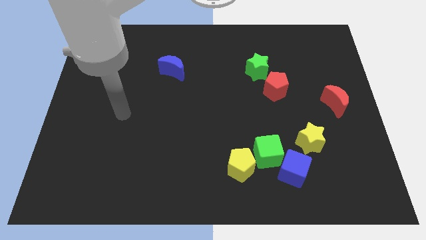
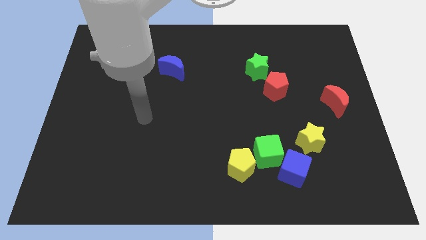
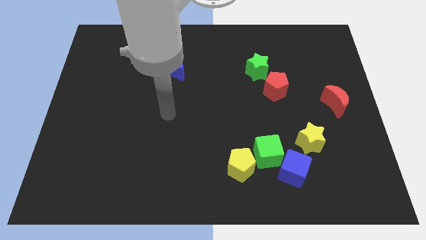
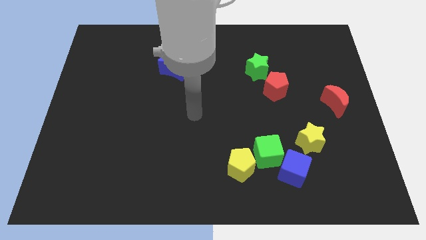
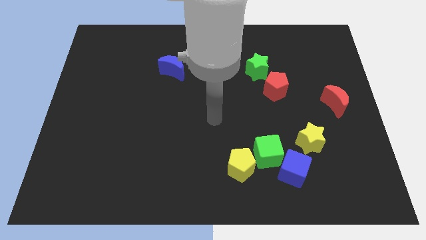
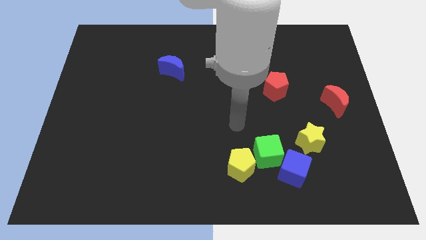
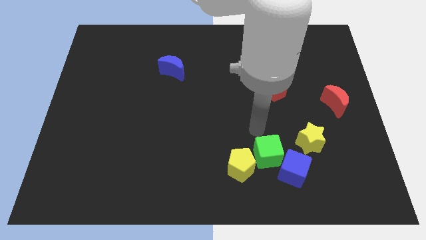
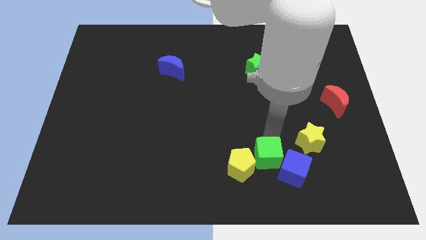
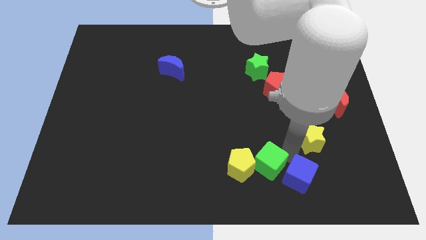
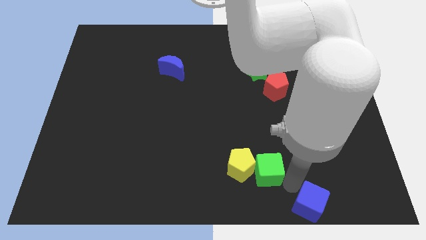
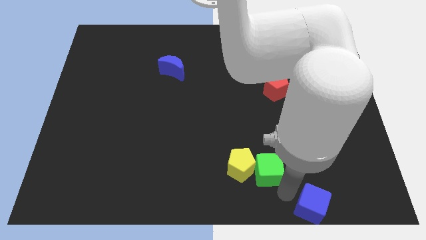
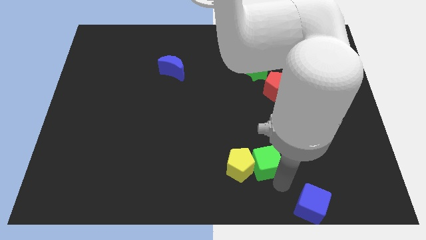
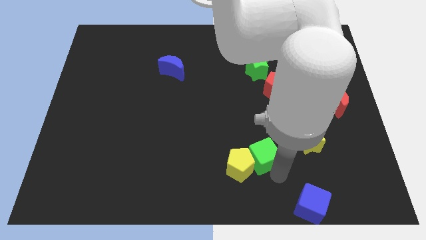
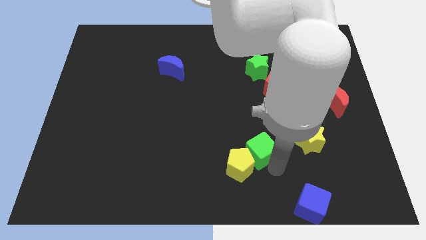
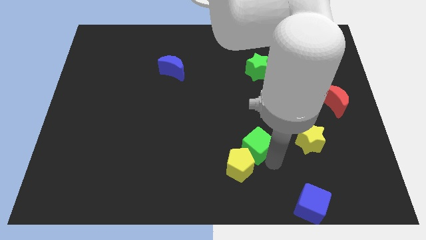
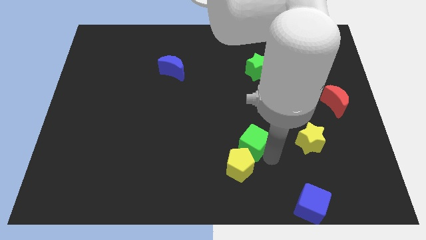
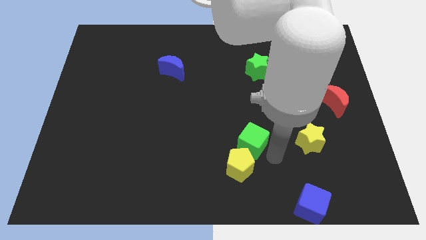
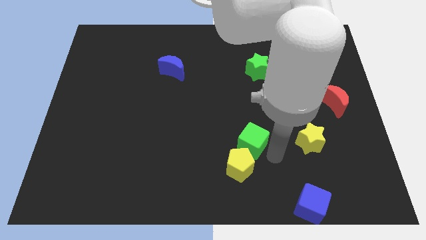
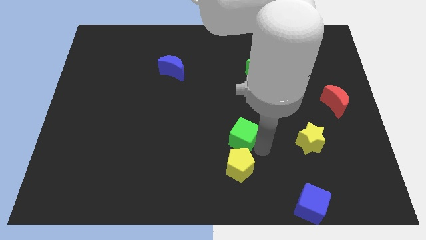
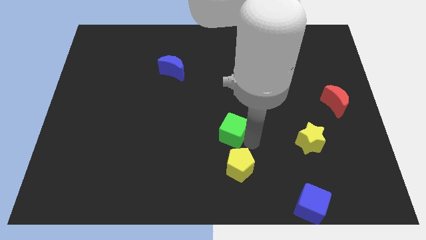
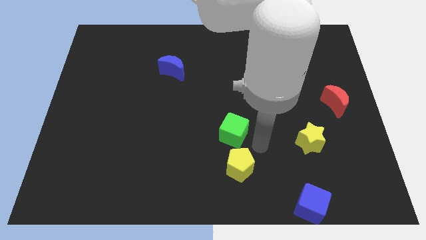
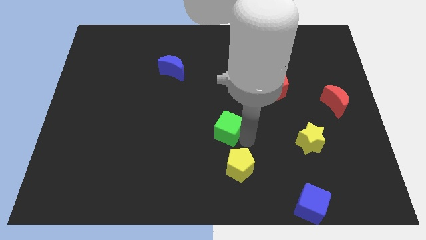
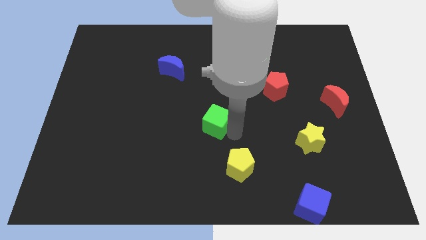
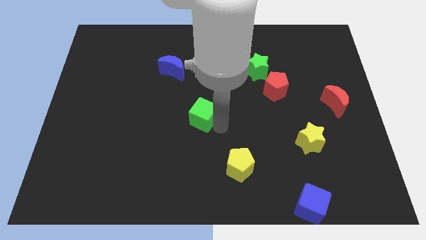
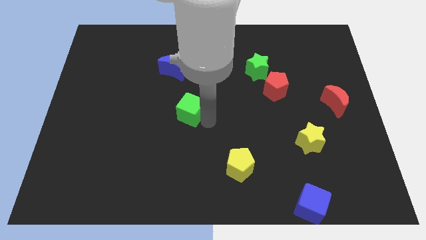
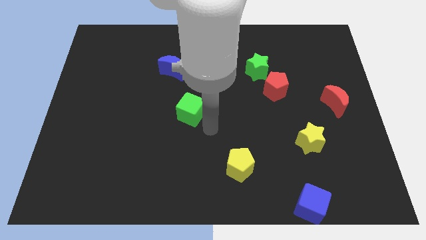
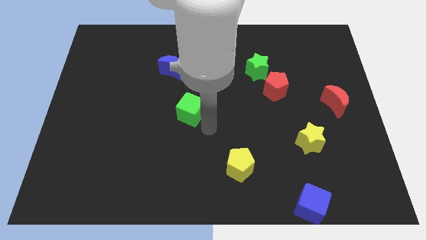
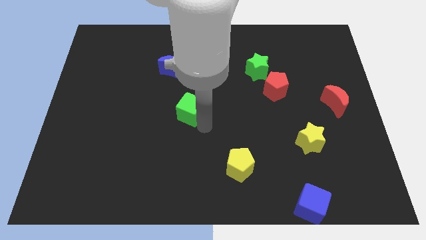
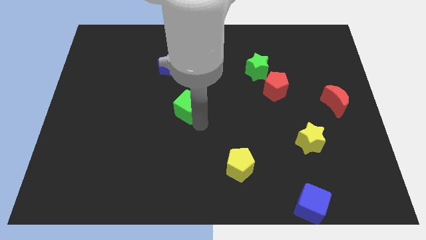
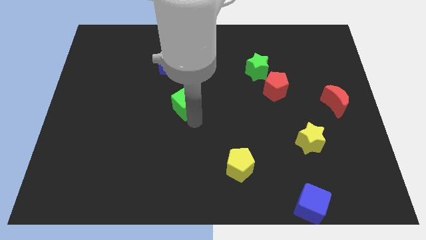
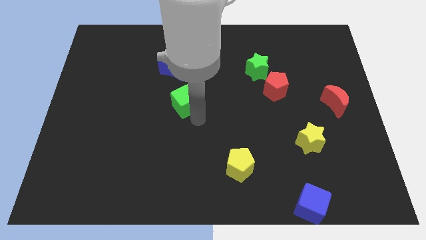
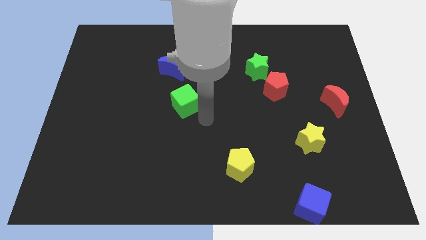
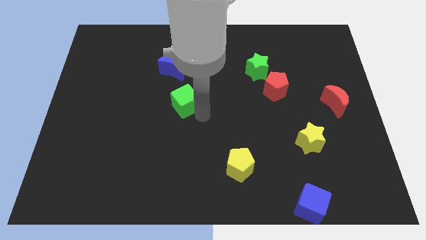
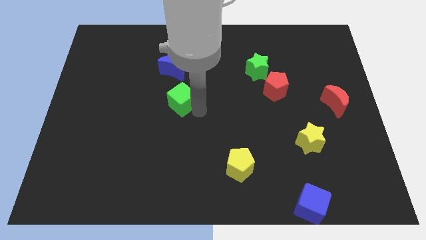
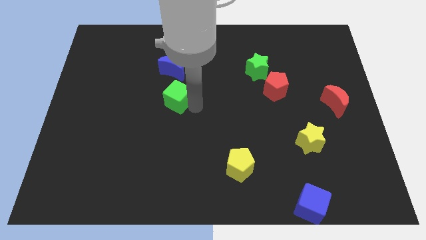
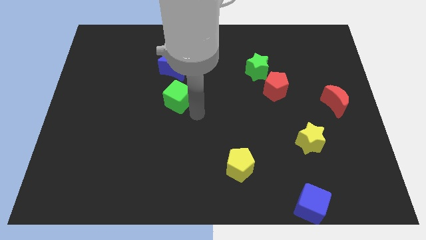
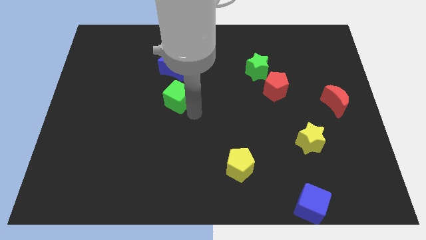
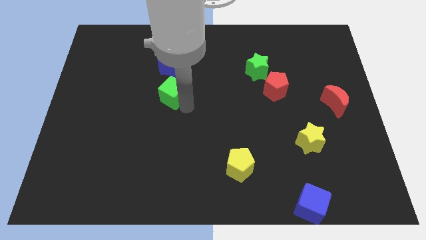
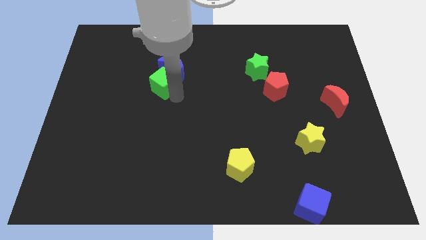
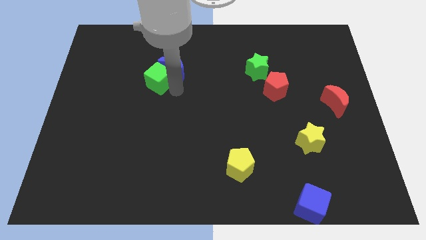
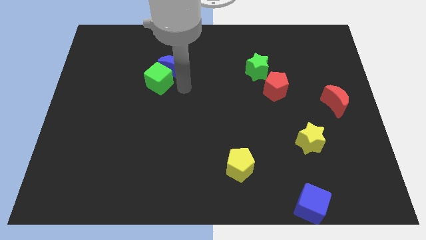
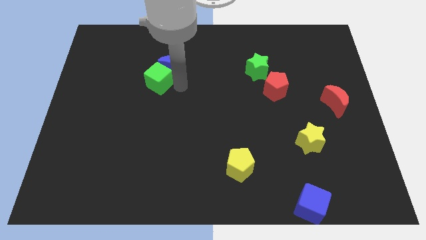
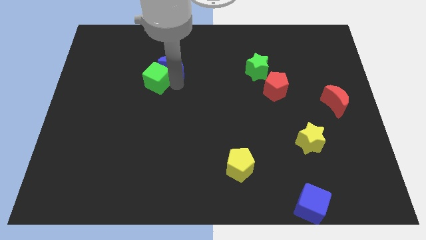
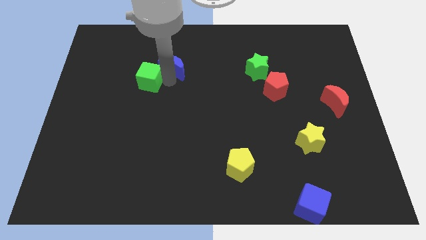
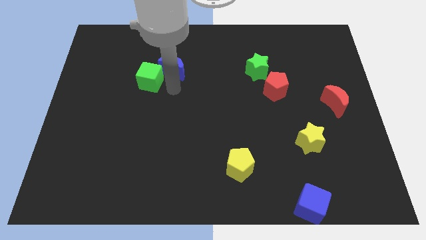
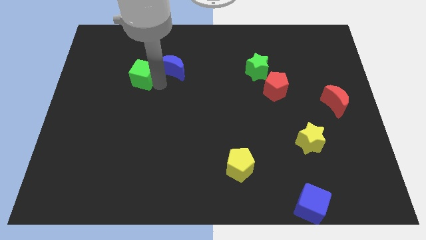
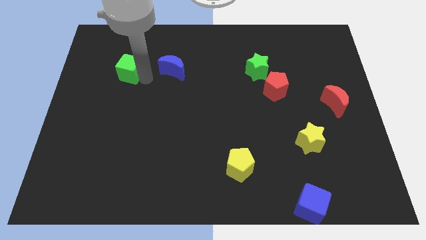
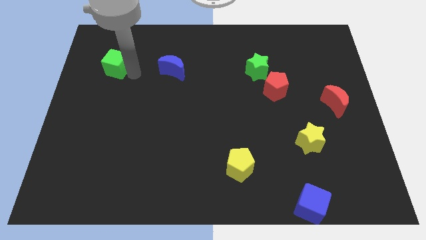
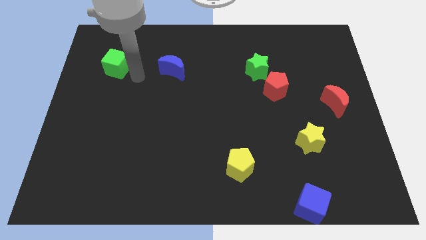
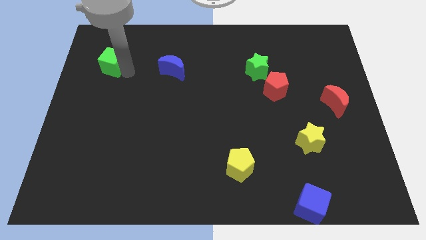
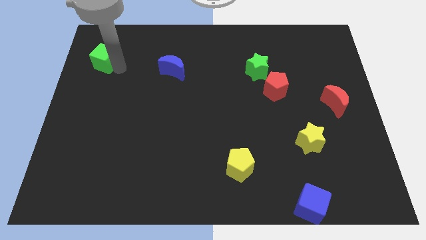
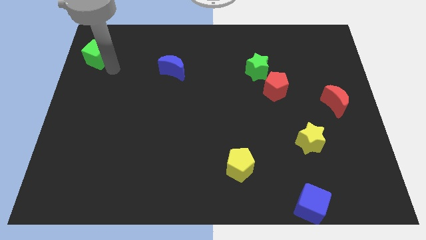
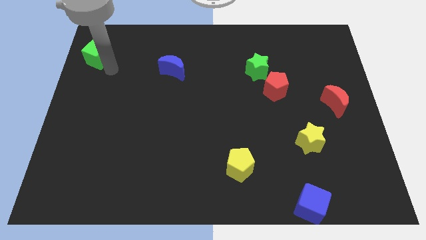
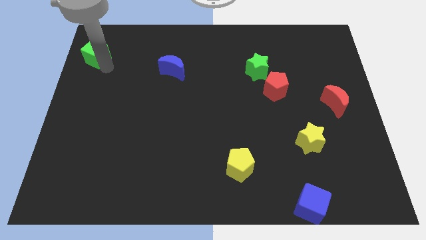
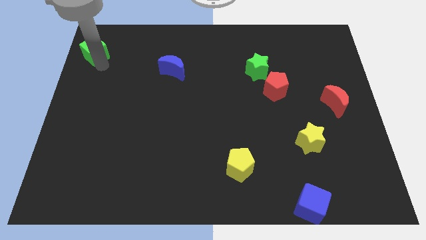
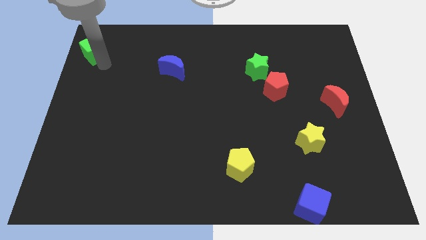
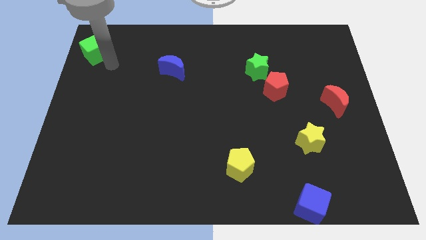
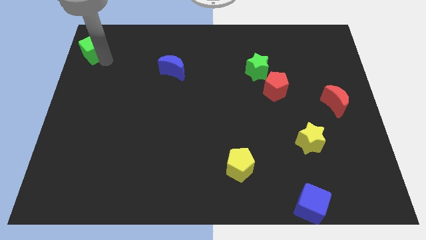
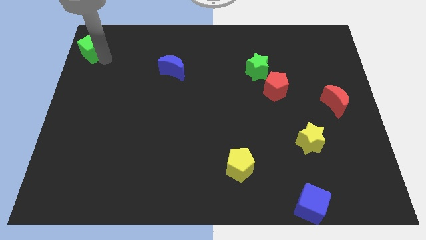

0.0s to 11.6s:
put the green cube to the upper left corner

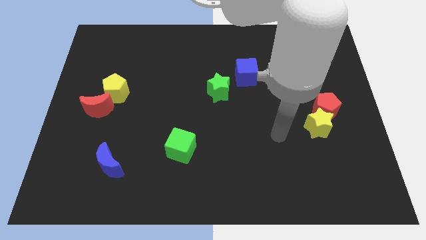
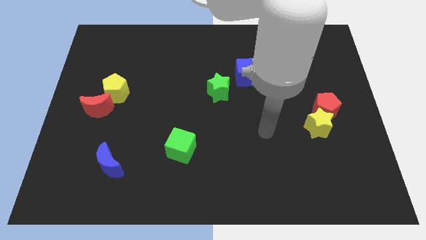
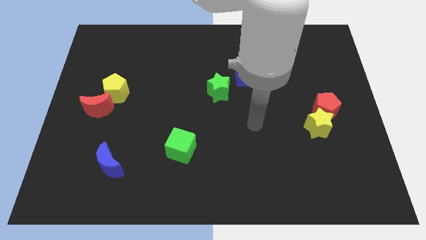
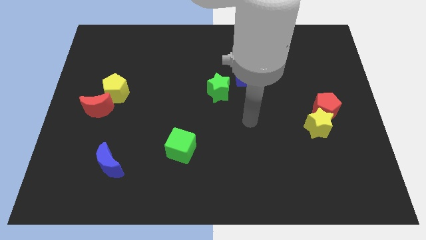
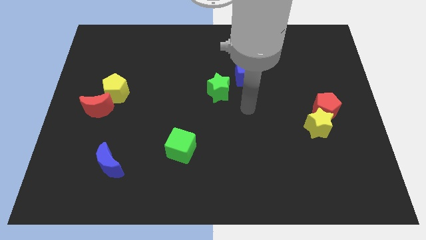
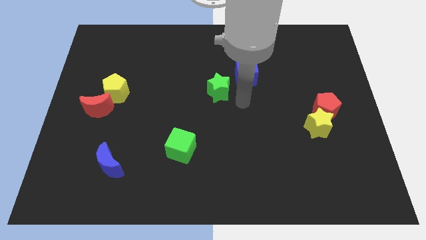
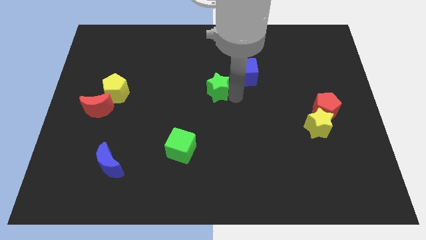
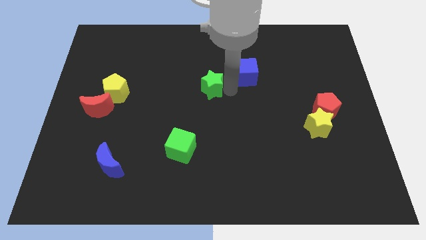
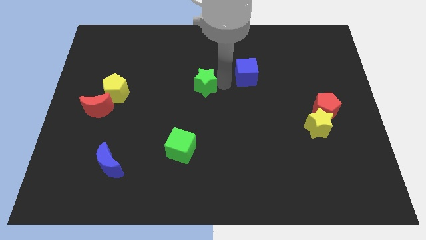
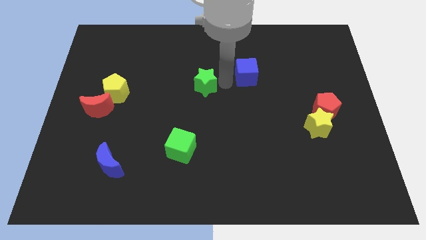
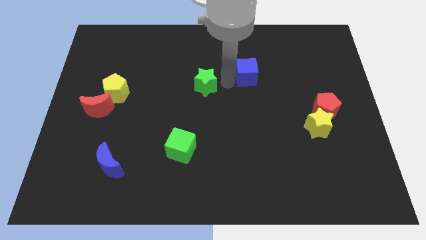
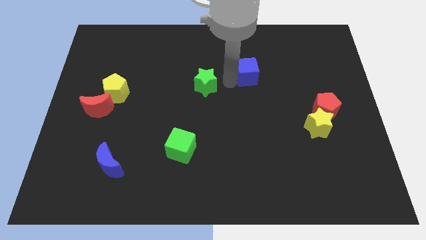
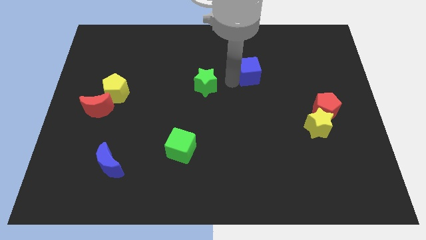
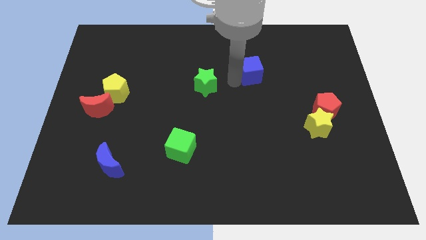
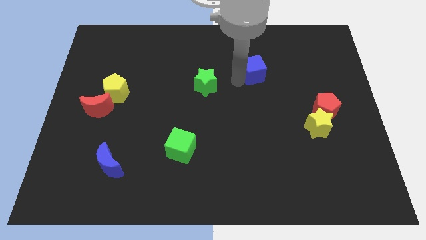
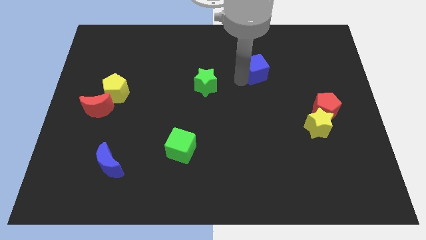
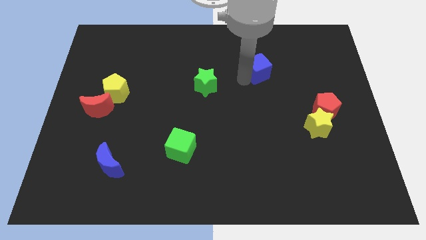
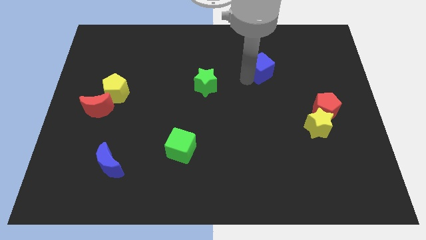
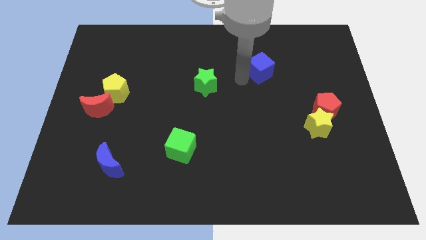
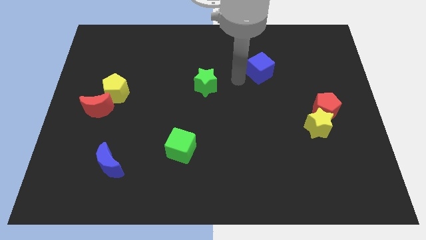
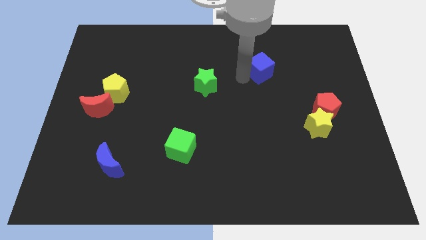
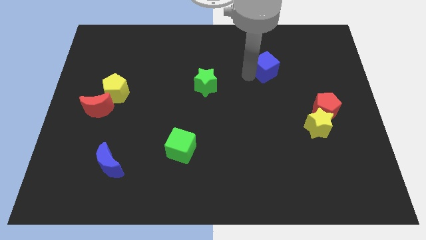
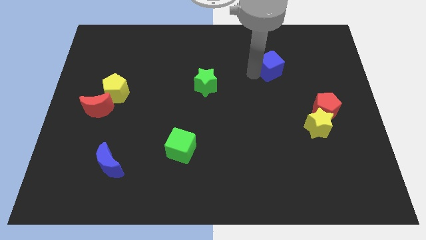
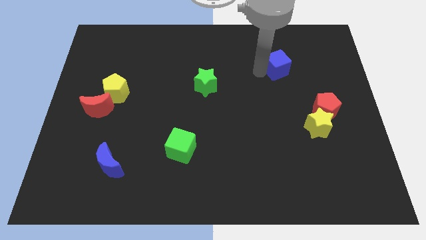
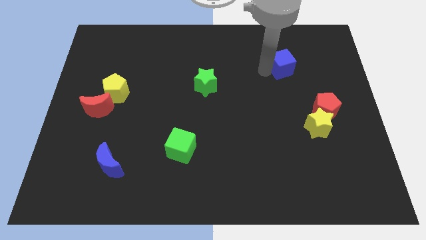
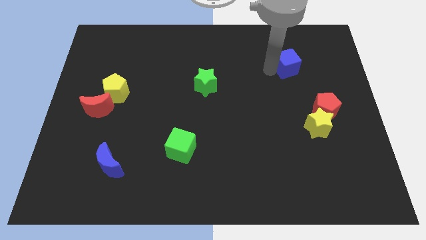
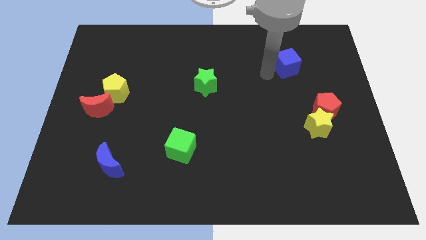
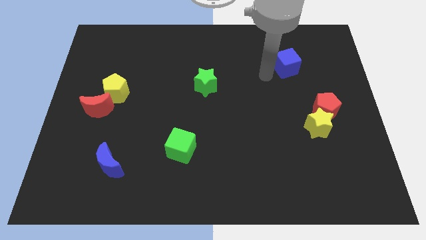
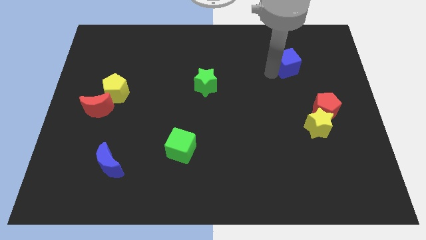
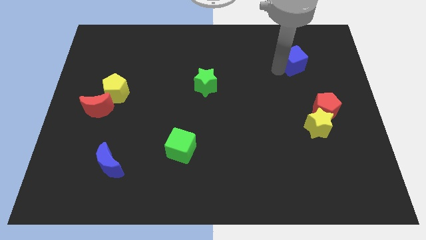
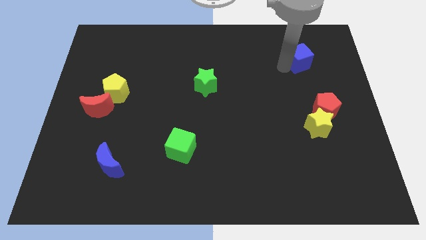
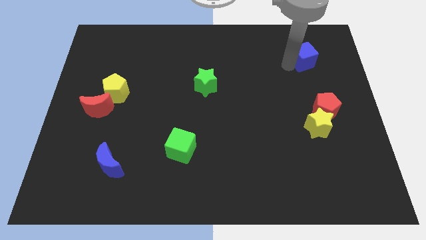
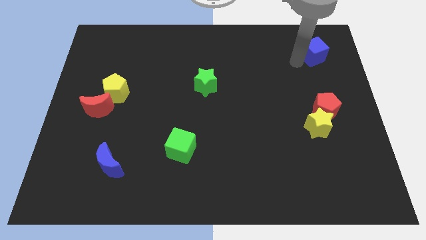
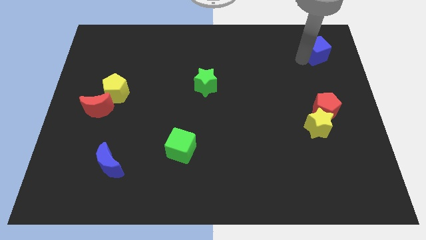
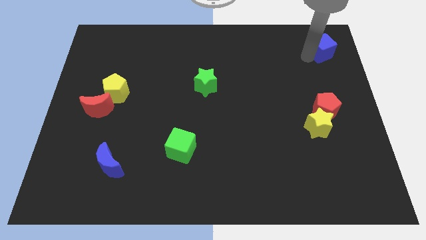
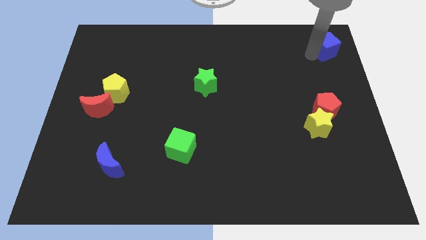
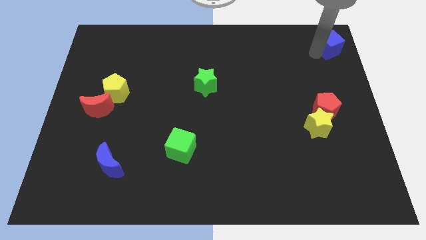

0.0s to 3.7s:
slide the blue cube to the upper right corner
